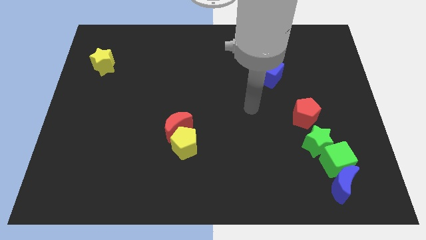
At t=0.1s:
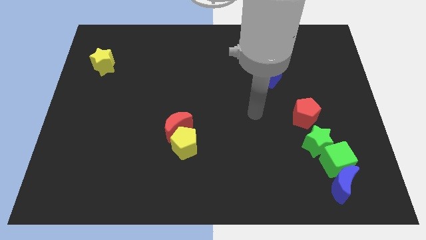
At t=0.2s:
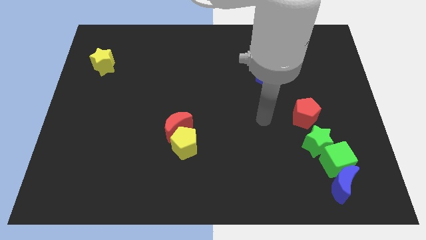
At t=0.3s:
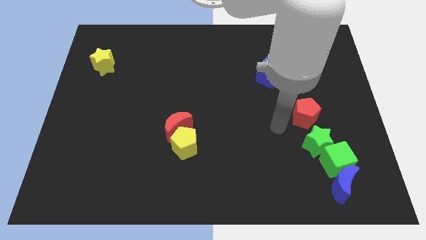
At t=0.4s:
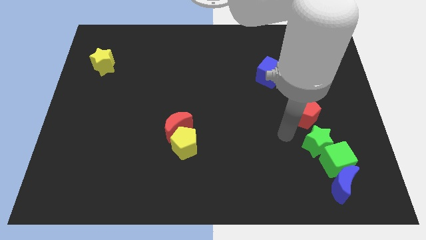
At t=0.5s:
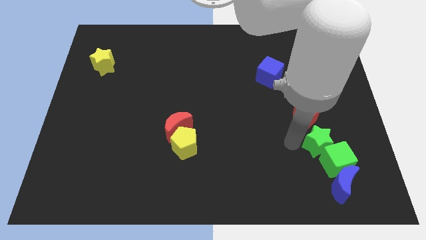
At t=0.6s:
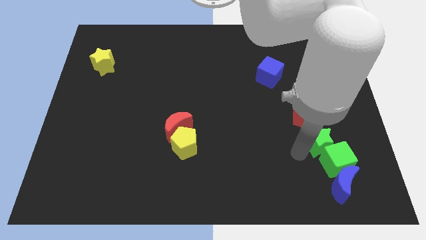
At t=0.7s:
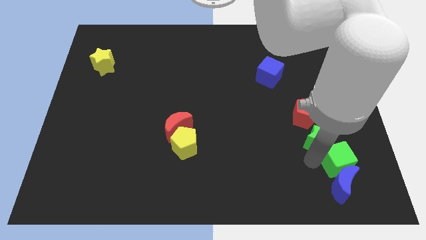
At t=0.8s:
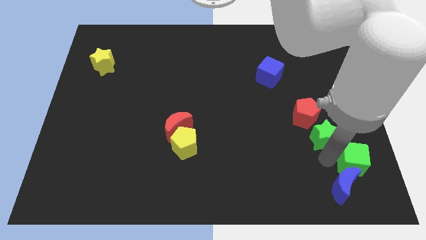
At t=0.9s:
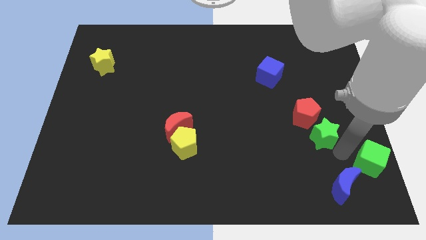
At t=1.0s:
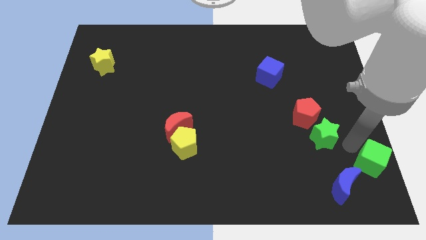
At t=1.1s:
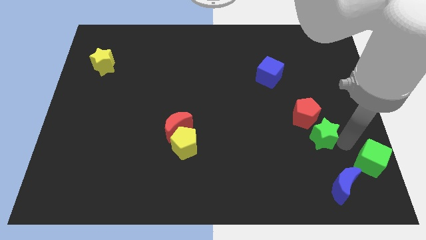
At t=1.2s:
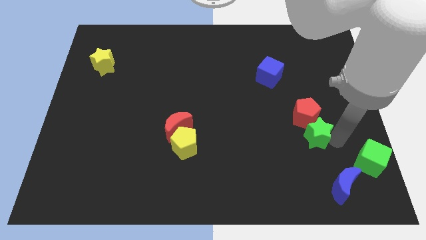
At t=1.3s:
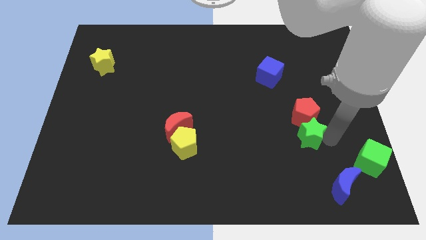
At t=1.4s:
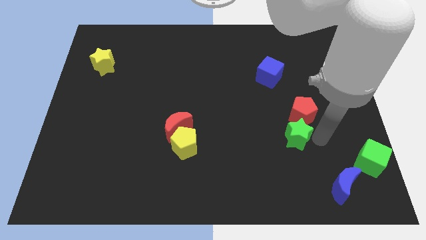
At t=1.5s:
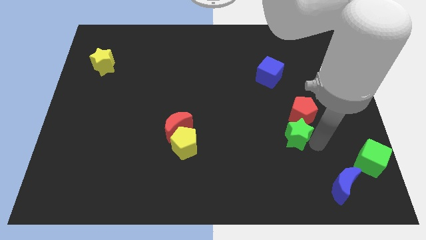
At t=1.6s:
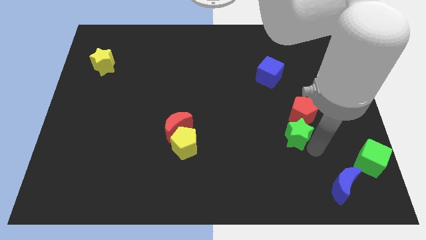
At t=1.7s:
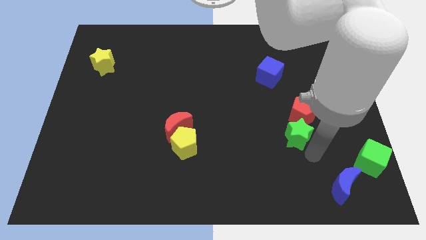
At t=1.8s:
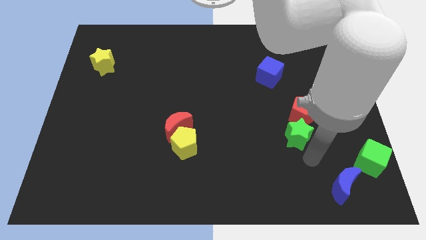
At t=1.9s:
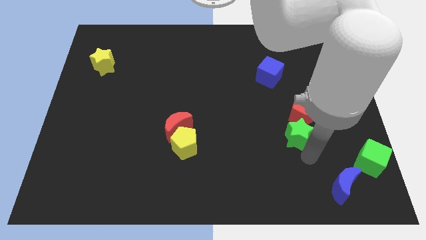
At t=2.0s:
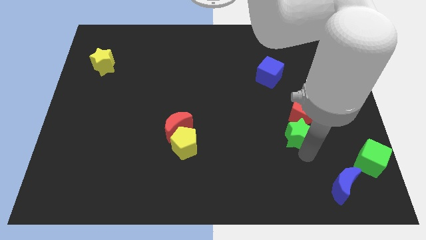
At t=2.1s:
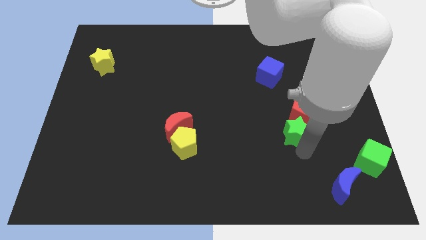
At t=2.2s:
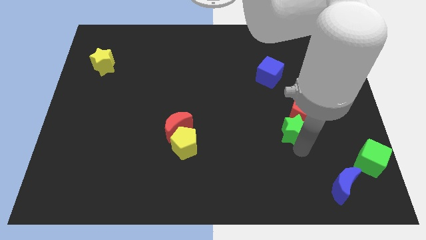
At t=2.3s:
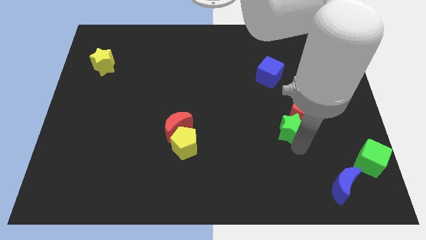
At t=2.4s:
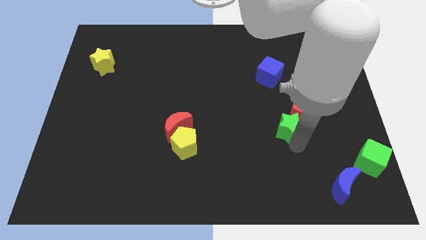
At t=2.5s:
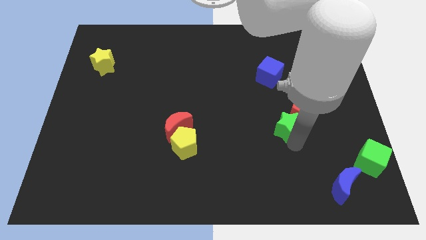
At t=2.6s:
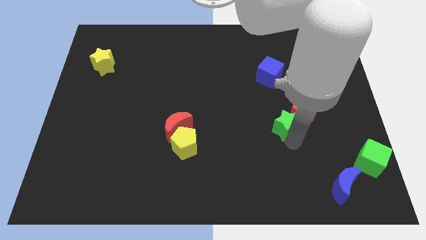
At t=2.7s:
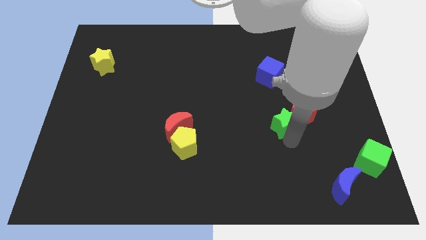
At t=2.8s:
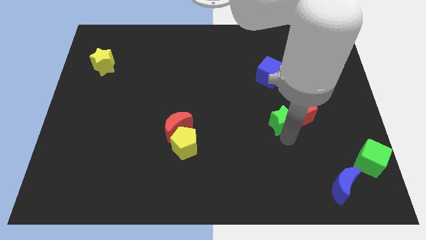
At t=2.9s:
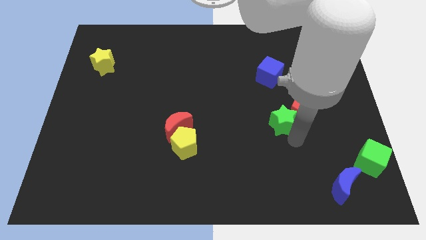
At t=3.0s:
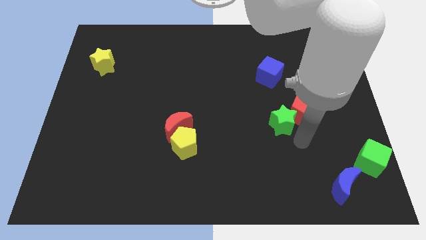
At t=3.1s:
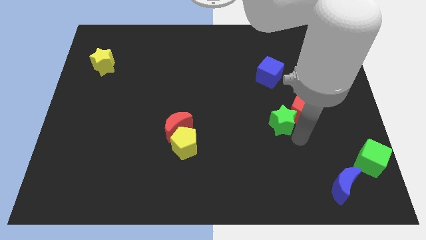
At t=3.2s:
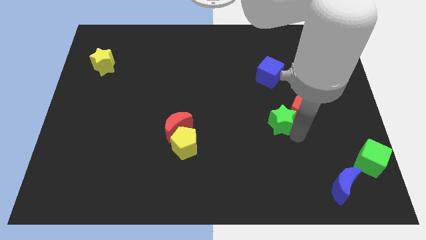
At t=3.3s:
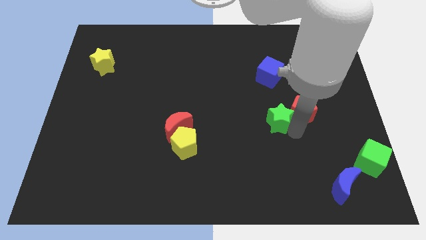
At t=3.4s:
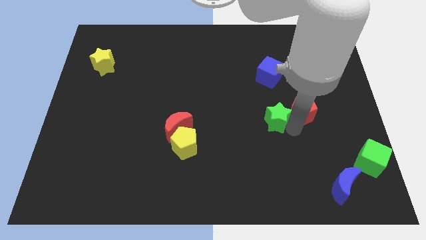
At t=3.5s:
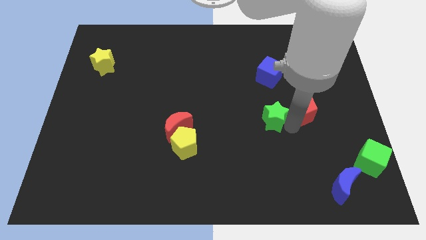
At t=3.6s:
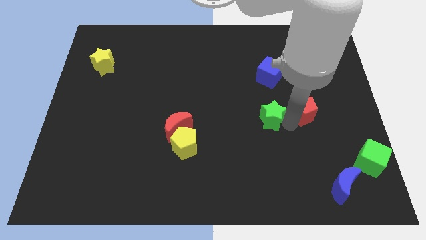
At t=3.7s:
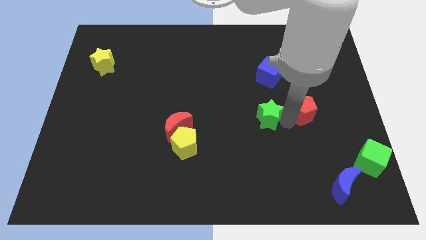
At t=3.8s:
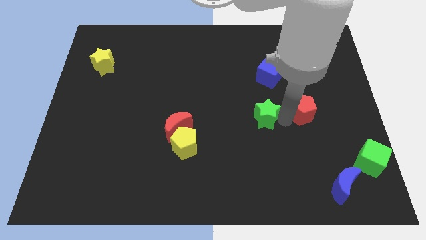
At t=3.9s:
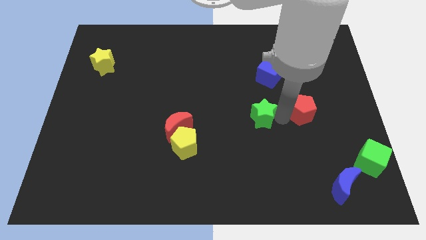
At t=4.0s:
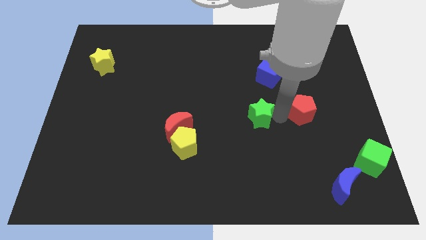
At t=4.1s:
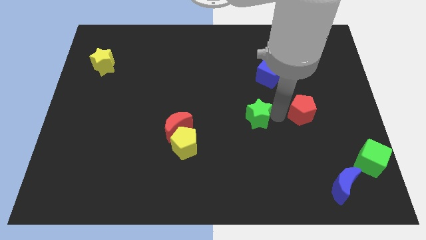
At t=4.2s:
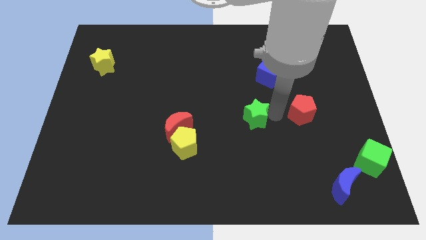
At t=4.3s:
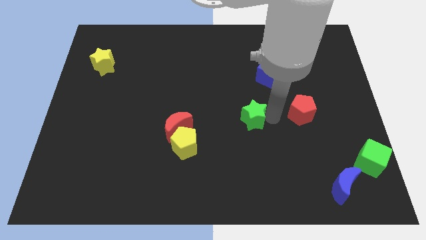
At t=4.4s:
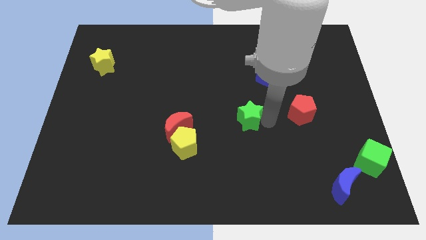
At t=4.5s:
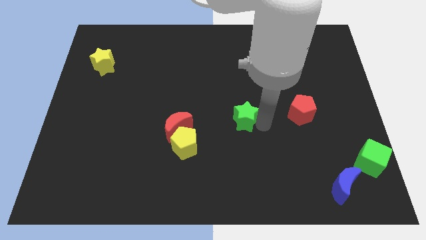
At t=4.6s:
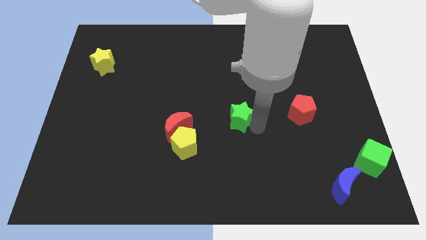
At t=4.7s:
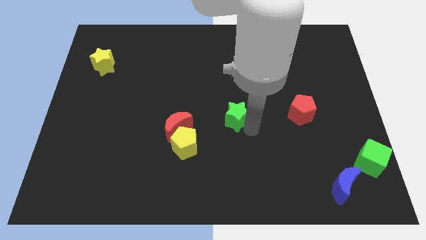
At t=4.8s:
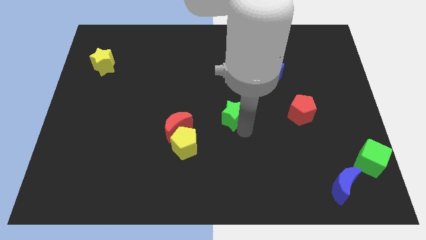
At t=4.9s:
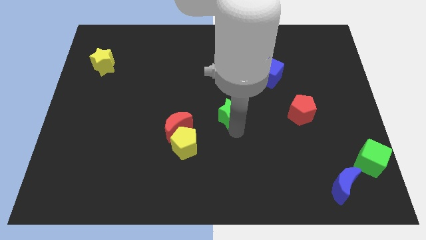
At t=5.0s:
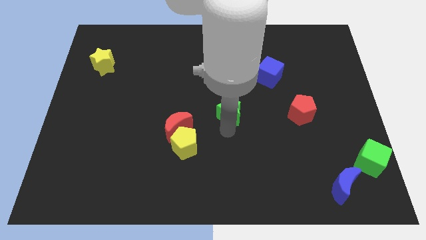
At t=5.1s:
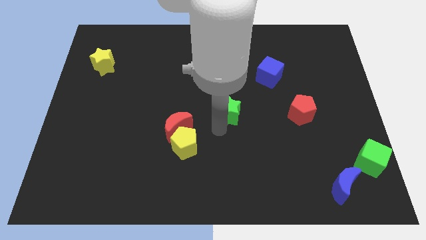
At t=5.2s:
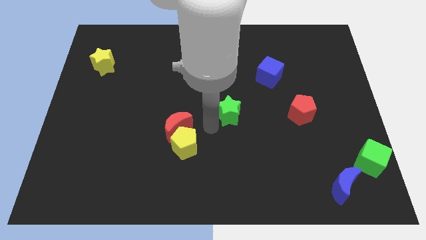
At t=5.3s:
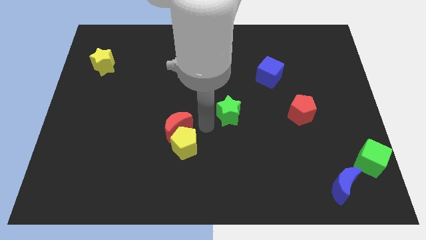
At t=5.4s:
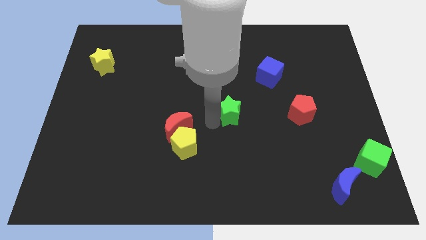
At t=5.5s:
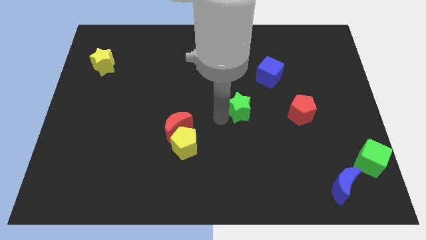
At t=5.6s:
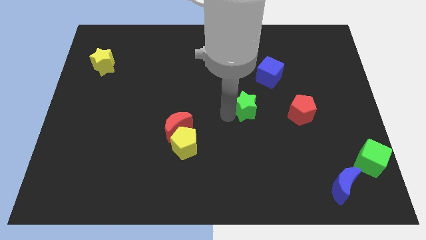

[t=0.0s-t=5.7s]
push the green star diagonally down and to the left of the blue cube

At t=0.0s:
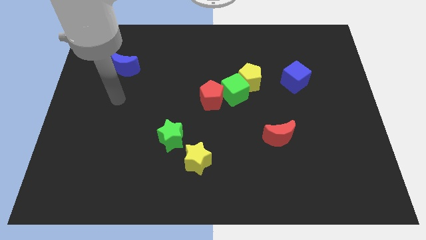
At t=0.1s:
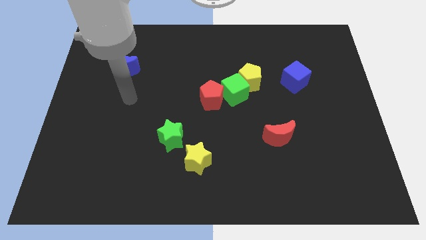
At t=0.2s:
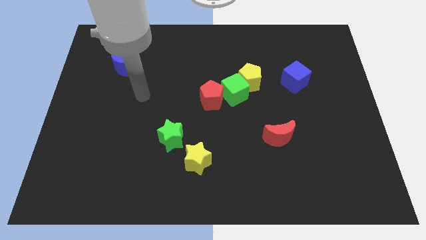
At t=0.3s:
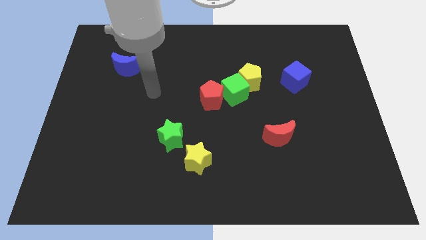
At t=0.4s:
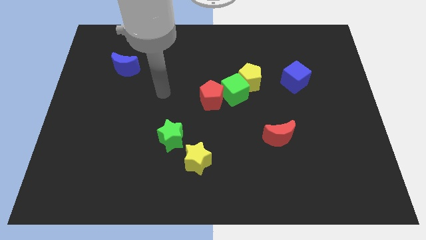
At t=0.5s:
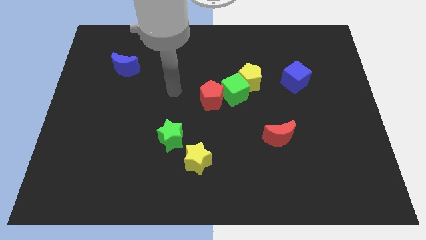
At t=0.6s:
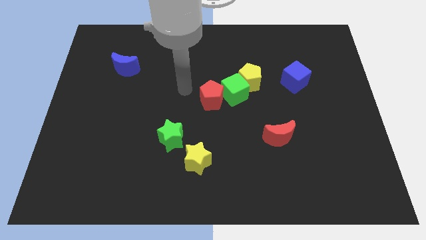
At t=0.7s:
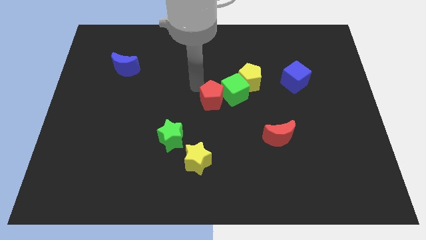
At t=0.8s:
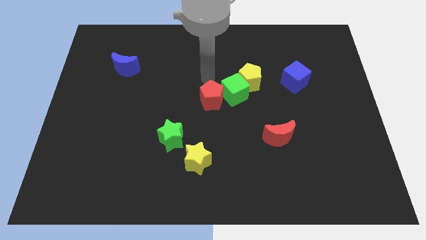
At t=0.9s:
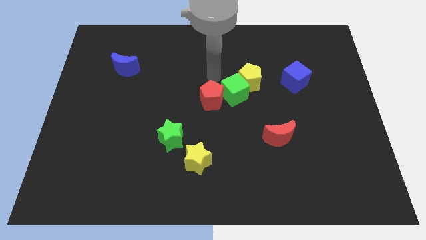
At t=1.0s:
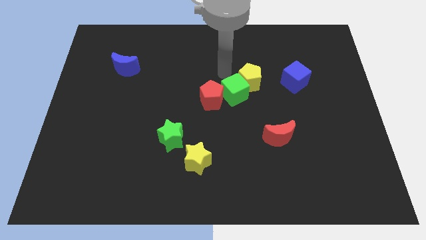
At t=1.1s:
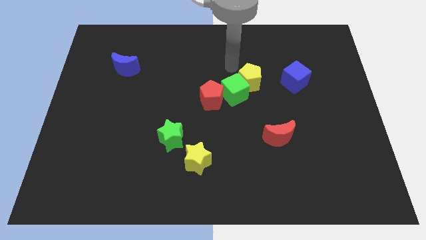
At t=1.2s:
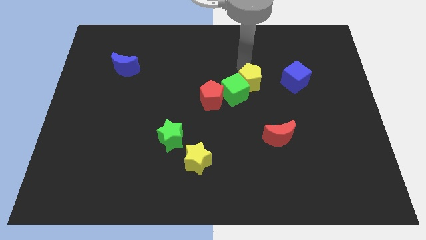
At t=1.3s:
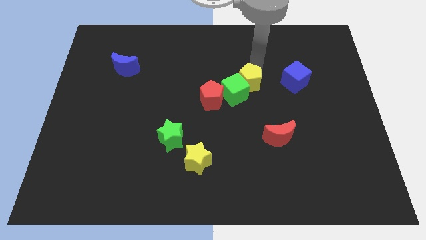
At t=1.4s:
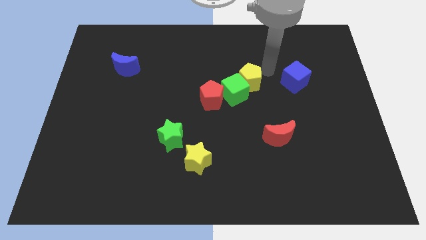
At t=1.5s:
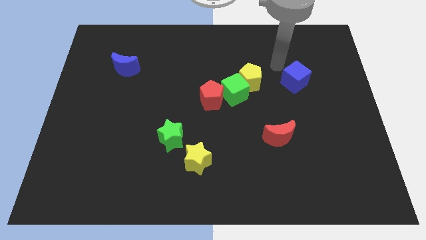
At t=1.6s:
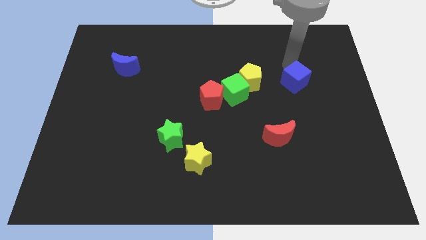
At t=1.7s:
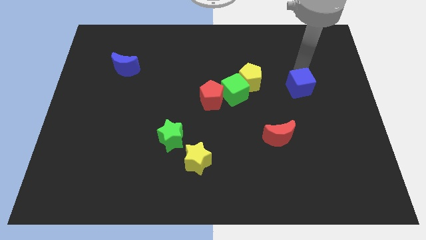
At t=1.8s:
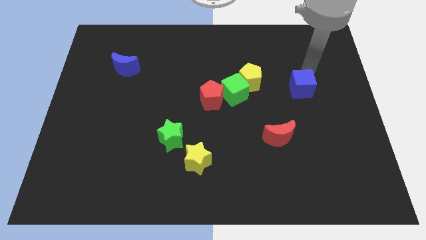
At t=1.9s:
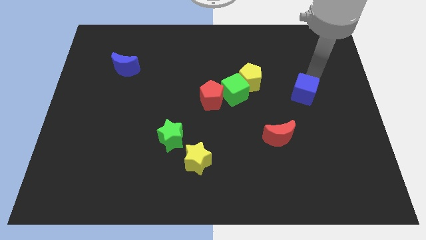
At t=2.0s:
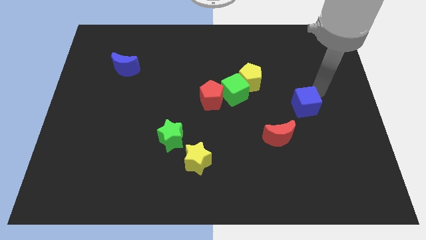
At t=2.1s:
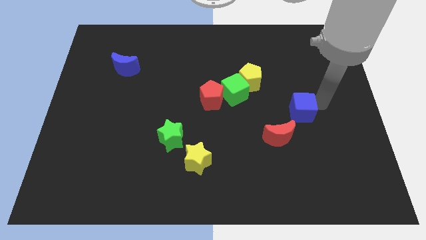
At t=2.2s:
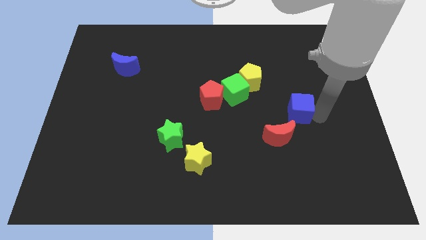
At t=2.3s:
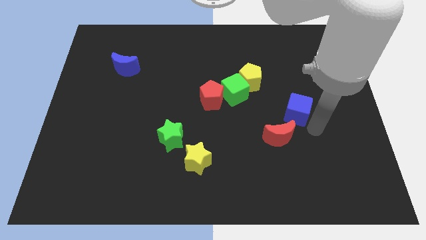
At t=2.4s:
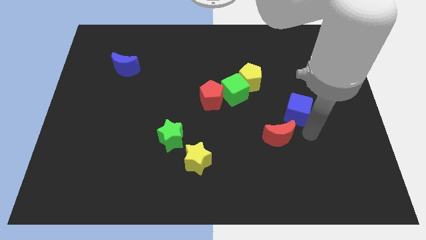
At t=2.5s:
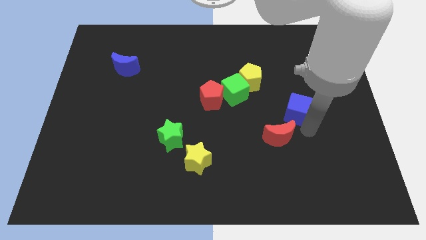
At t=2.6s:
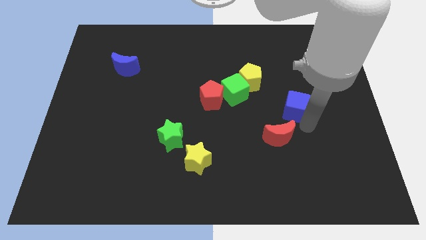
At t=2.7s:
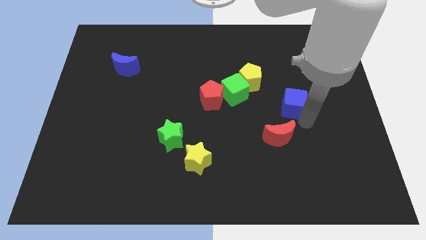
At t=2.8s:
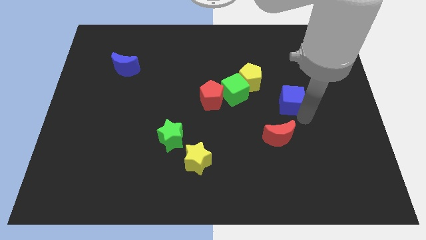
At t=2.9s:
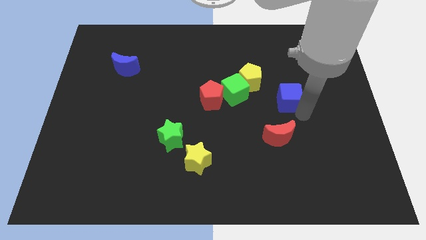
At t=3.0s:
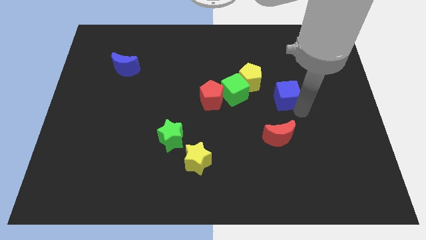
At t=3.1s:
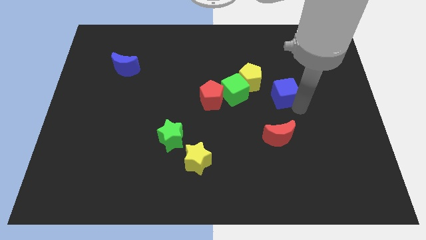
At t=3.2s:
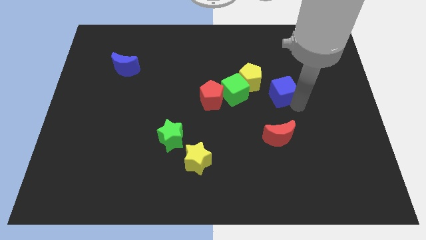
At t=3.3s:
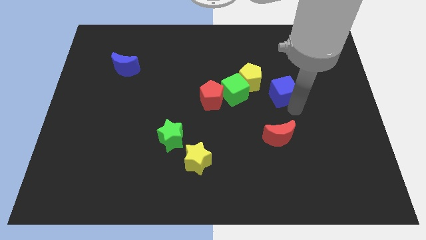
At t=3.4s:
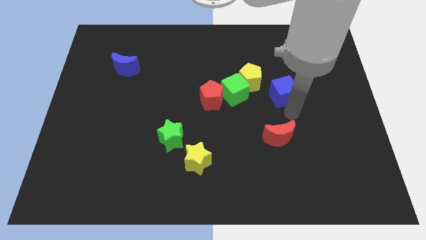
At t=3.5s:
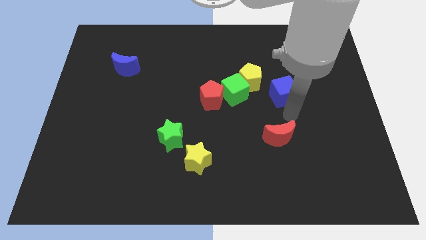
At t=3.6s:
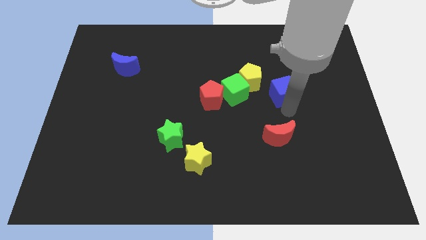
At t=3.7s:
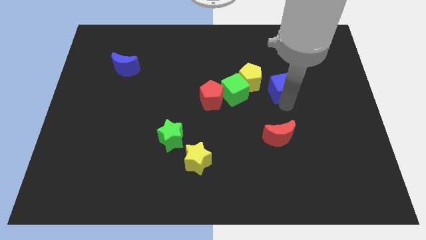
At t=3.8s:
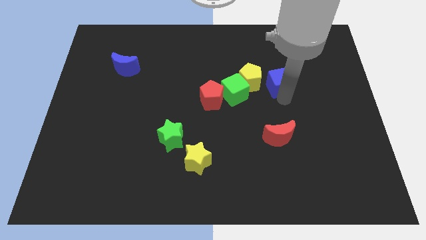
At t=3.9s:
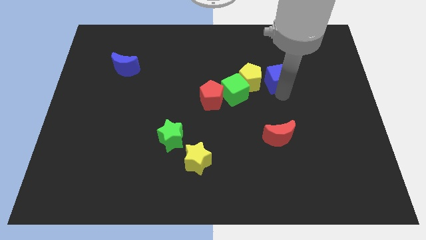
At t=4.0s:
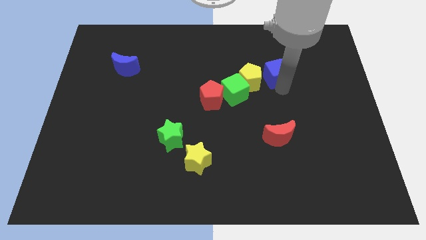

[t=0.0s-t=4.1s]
put the blue cube diagonally up and to the right of the green cube
